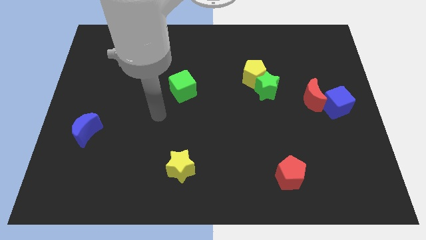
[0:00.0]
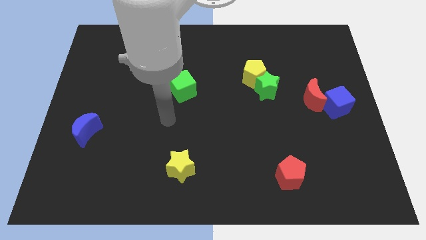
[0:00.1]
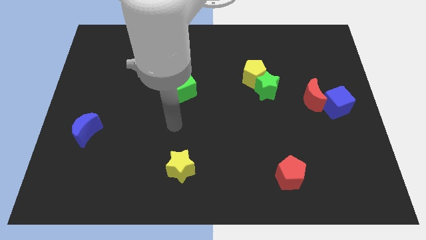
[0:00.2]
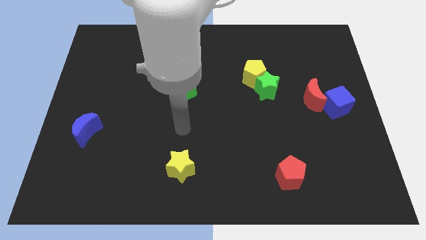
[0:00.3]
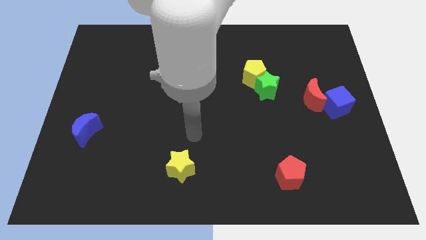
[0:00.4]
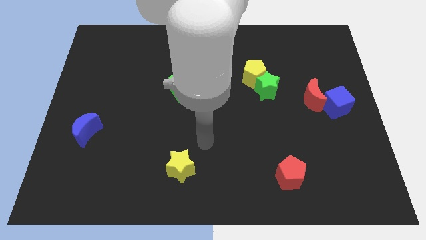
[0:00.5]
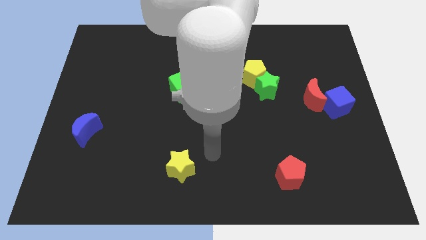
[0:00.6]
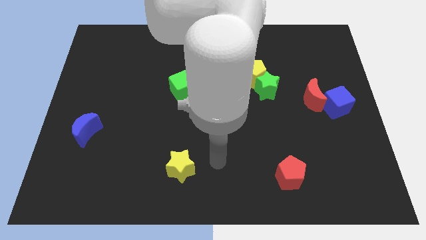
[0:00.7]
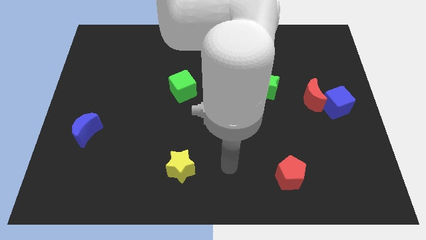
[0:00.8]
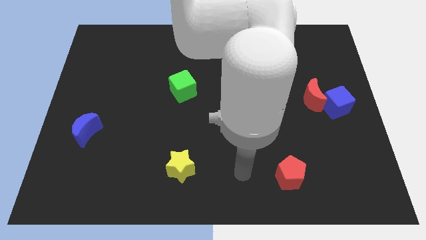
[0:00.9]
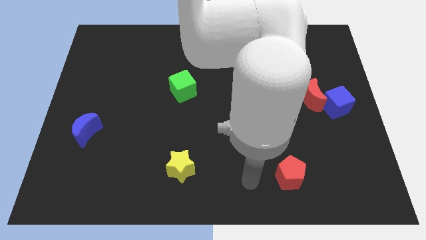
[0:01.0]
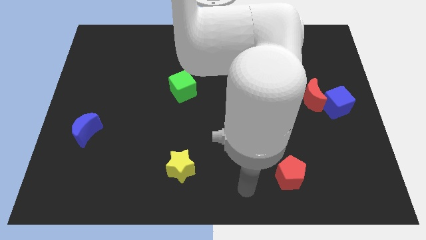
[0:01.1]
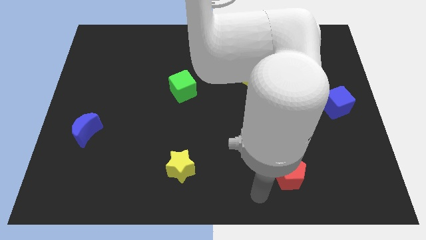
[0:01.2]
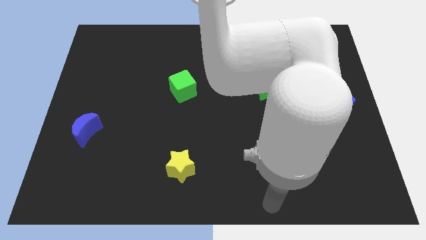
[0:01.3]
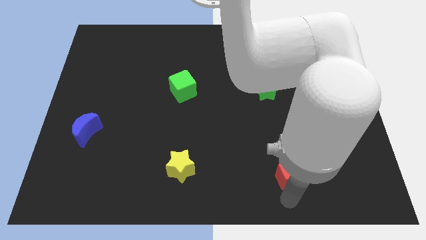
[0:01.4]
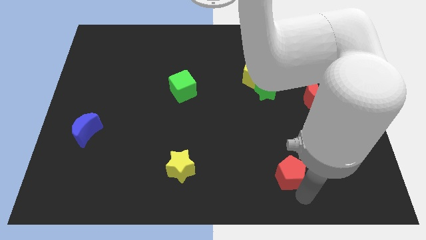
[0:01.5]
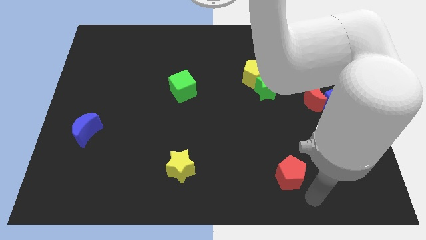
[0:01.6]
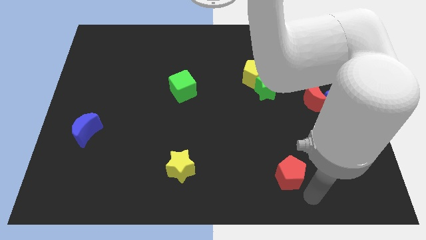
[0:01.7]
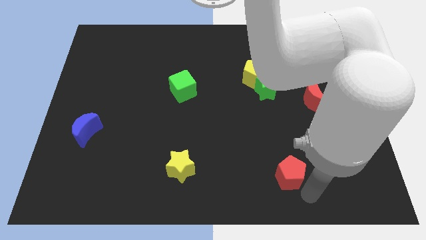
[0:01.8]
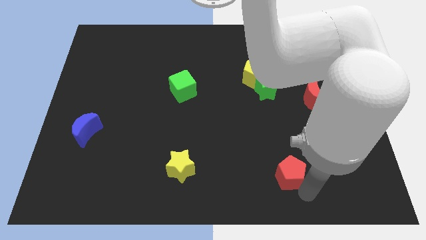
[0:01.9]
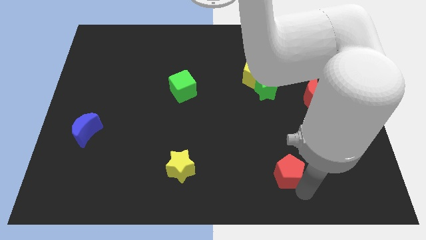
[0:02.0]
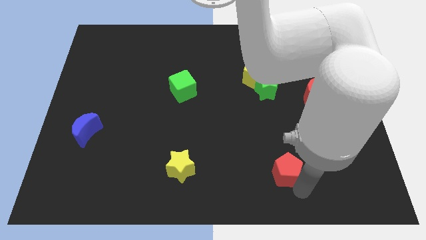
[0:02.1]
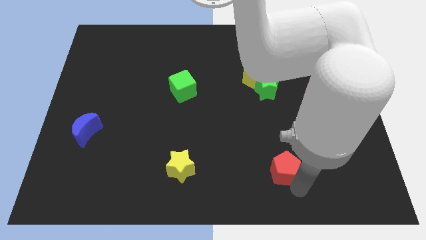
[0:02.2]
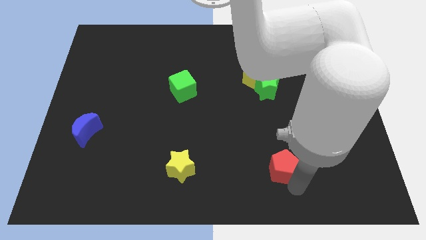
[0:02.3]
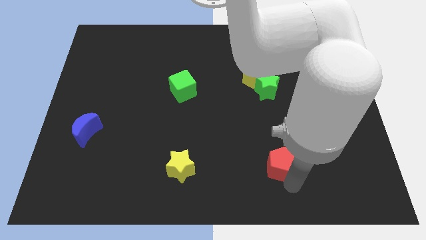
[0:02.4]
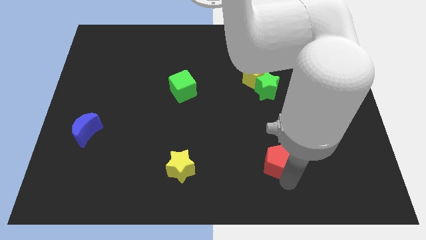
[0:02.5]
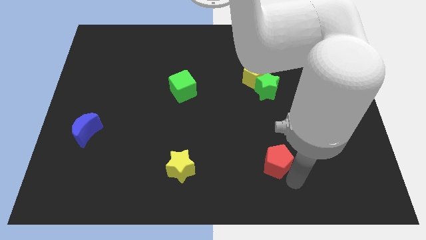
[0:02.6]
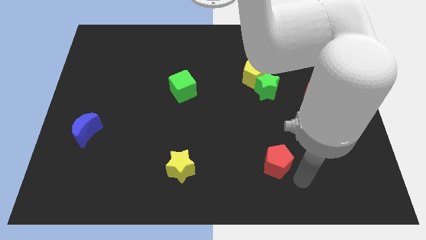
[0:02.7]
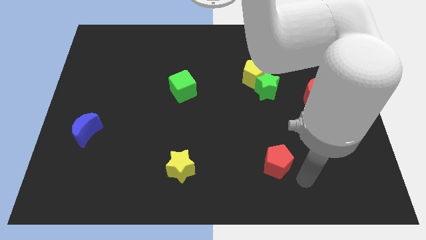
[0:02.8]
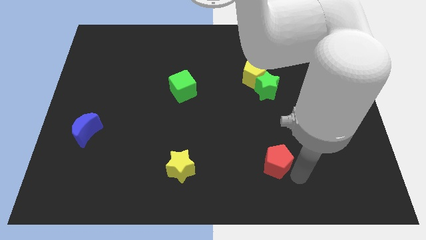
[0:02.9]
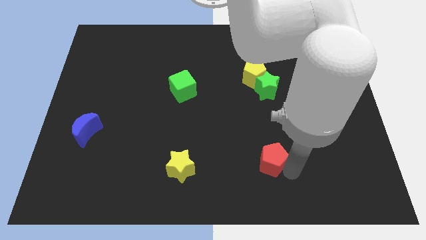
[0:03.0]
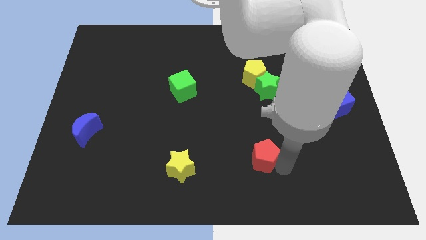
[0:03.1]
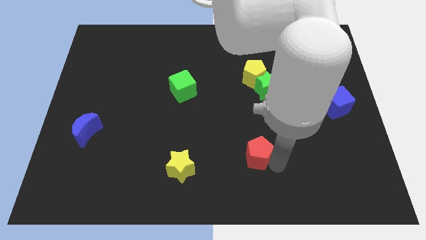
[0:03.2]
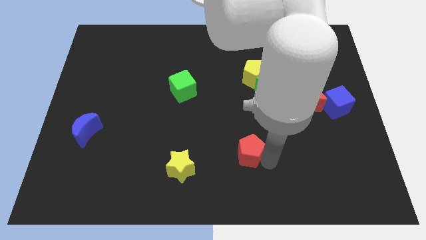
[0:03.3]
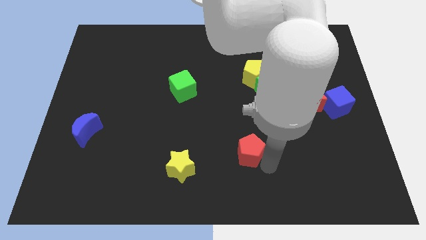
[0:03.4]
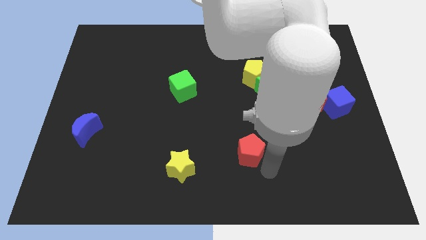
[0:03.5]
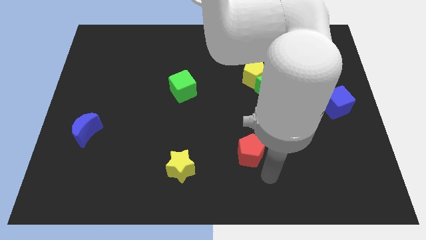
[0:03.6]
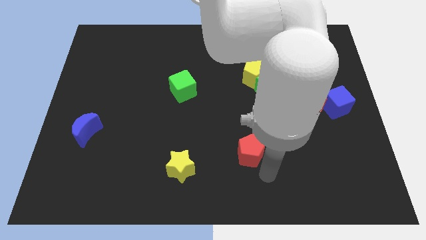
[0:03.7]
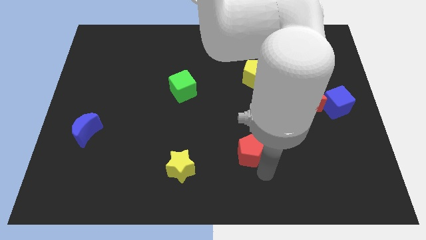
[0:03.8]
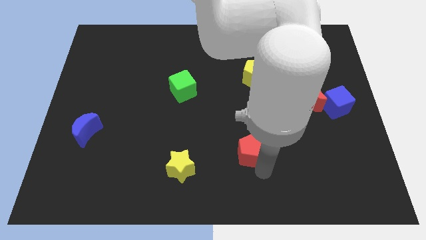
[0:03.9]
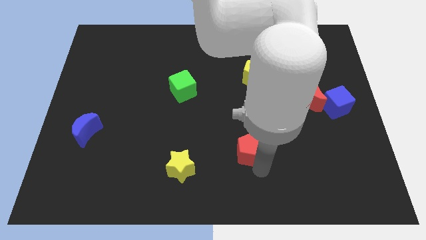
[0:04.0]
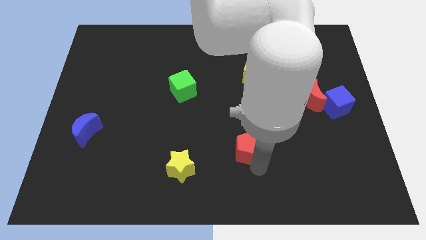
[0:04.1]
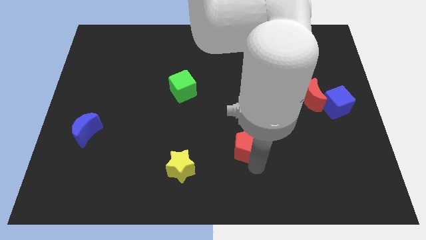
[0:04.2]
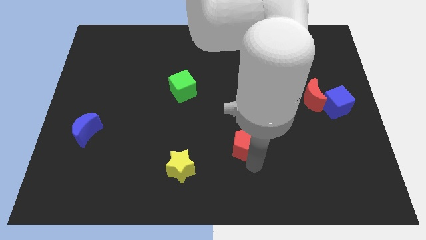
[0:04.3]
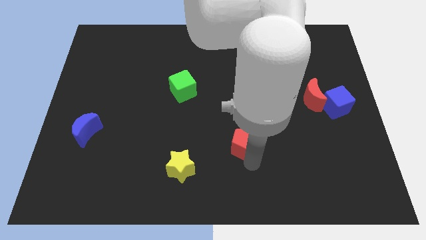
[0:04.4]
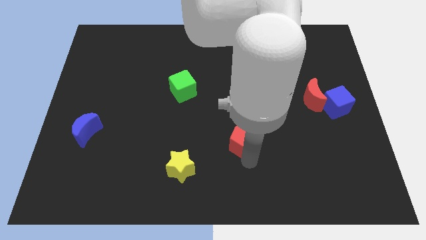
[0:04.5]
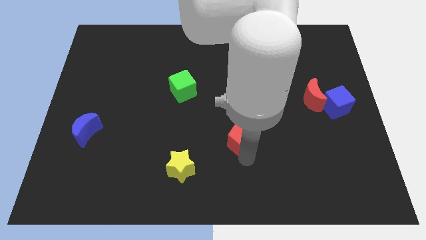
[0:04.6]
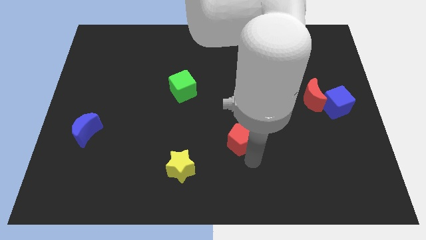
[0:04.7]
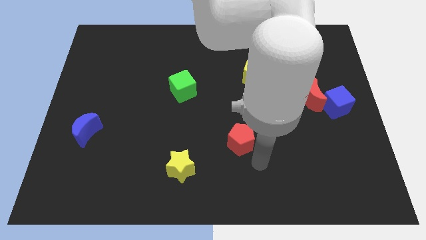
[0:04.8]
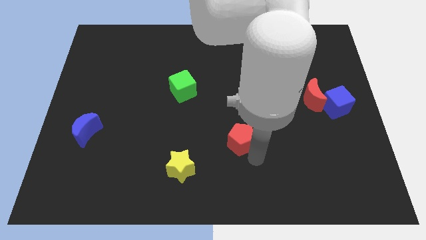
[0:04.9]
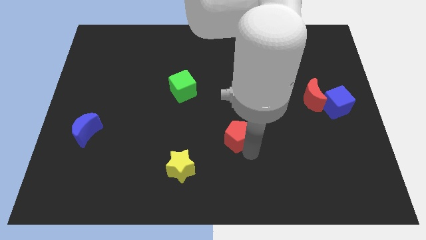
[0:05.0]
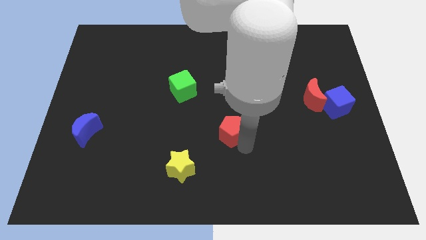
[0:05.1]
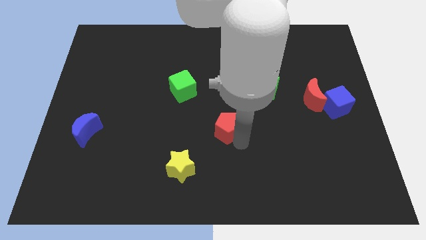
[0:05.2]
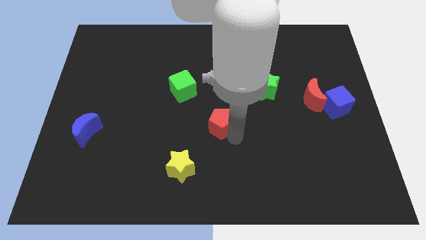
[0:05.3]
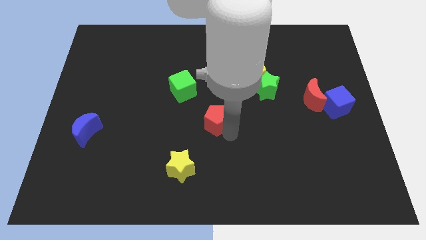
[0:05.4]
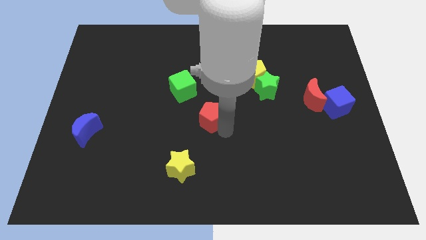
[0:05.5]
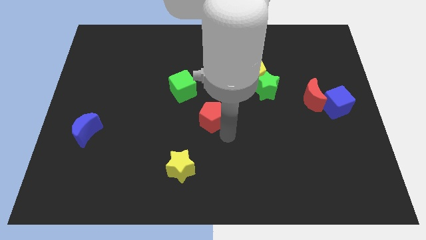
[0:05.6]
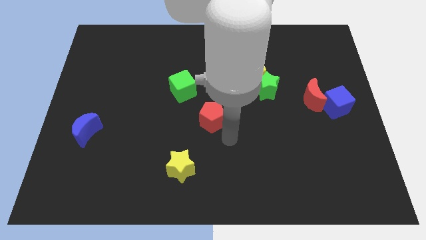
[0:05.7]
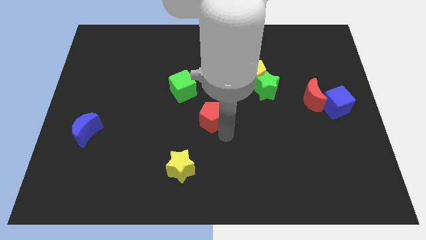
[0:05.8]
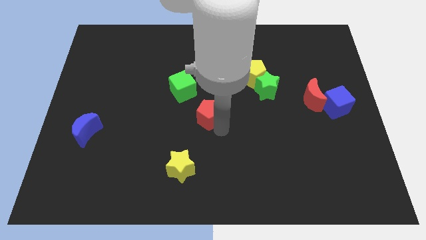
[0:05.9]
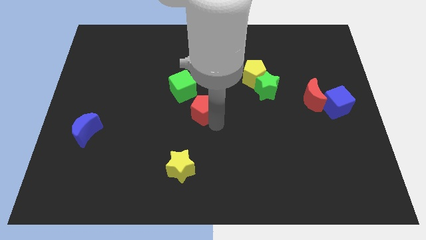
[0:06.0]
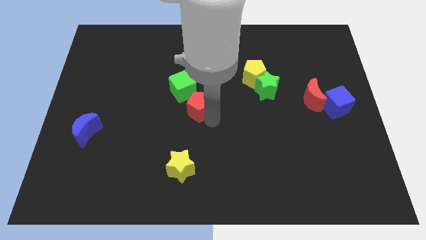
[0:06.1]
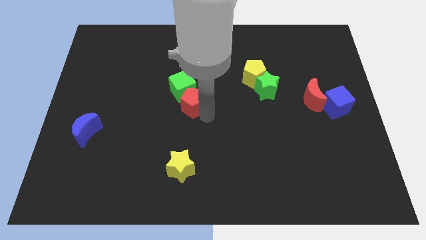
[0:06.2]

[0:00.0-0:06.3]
put the red pentagon next to the green cube

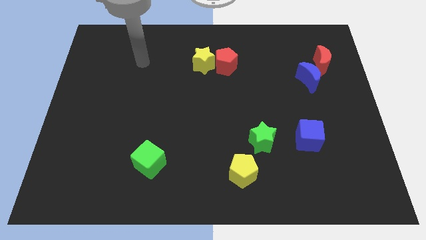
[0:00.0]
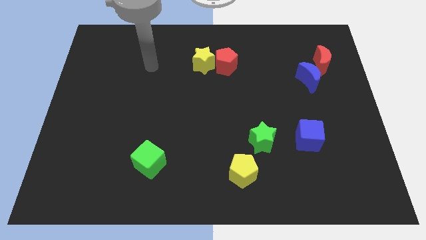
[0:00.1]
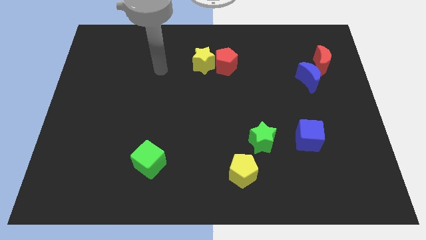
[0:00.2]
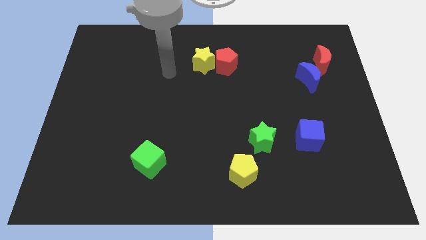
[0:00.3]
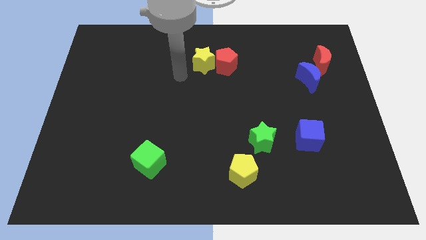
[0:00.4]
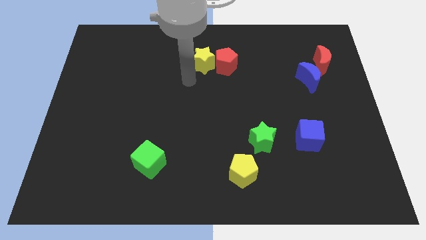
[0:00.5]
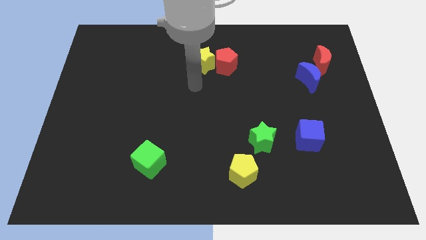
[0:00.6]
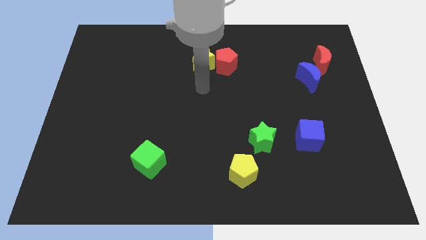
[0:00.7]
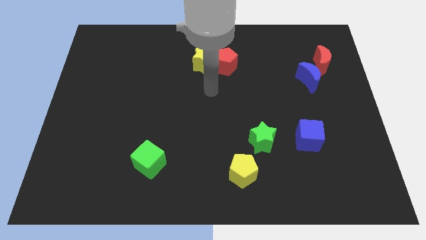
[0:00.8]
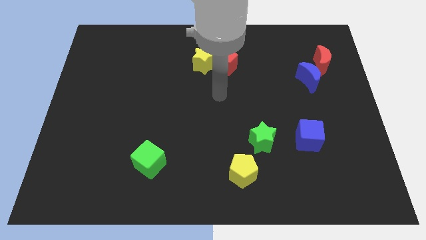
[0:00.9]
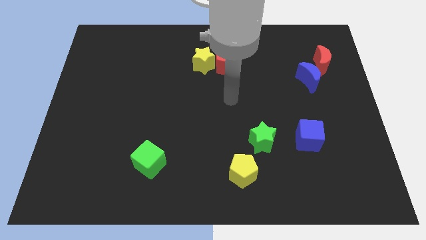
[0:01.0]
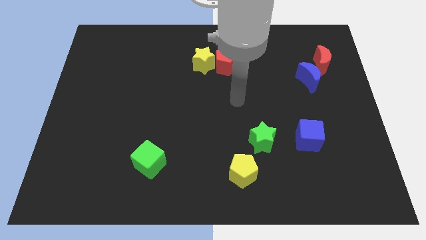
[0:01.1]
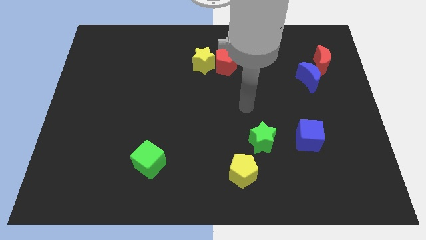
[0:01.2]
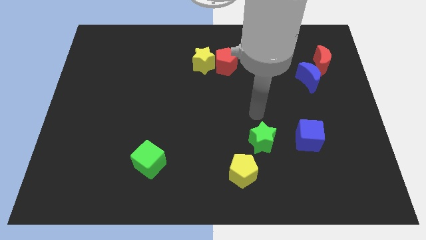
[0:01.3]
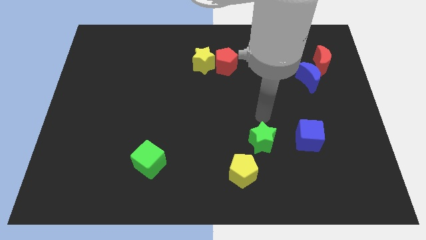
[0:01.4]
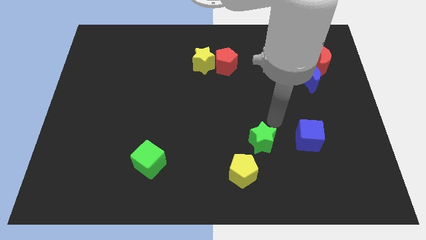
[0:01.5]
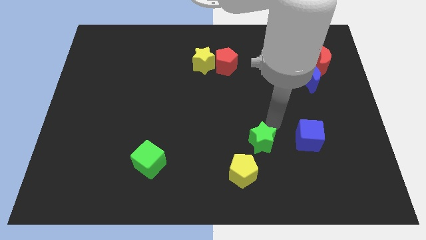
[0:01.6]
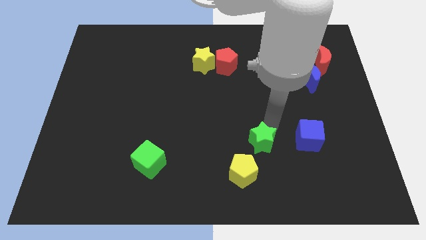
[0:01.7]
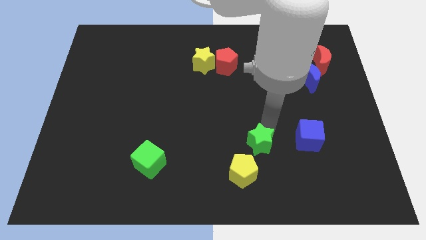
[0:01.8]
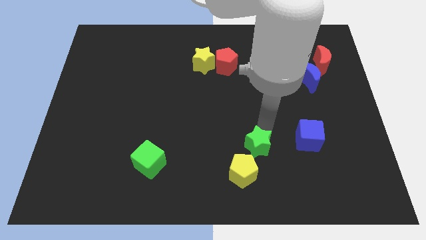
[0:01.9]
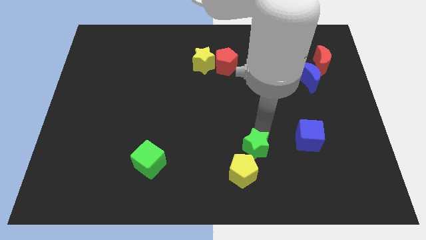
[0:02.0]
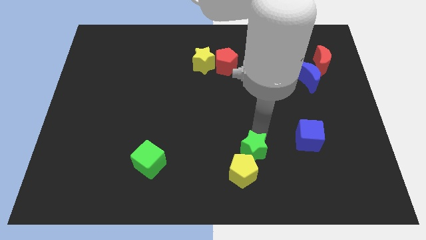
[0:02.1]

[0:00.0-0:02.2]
put the green star to the yellow pentagon
